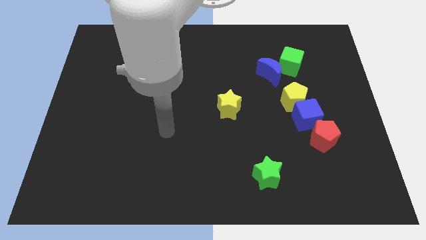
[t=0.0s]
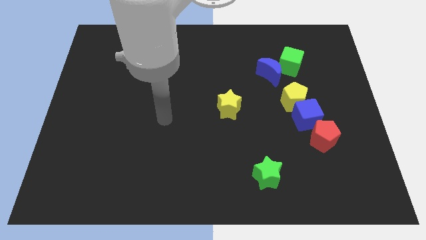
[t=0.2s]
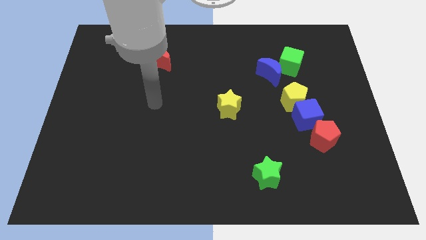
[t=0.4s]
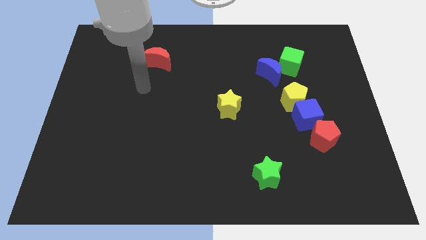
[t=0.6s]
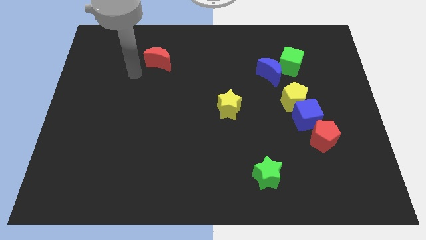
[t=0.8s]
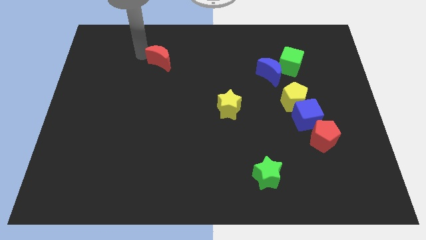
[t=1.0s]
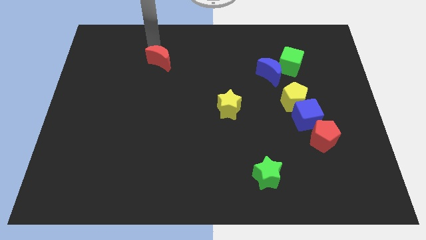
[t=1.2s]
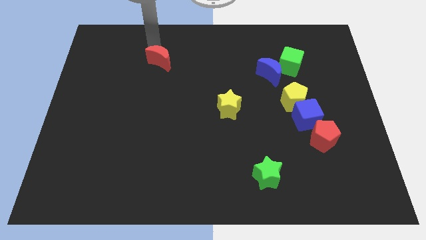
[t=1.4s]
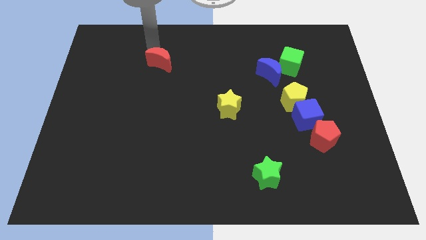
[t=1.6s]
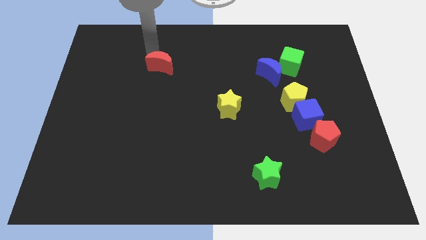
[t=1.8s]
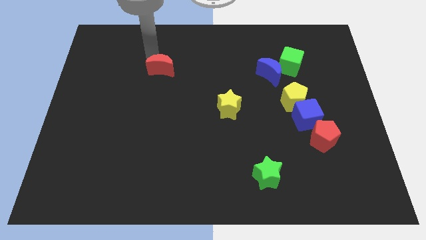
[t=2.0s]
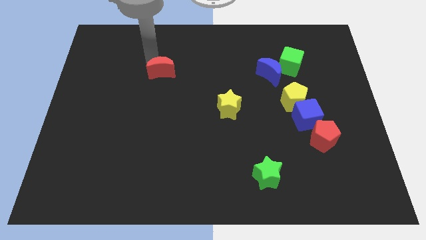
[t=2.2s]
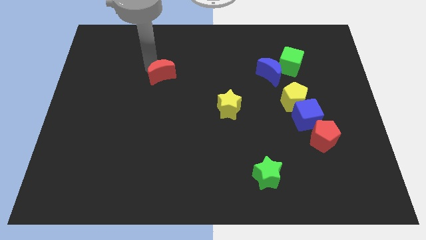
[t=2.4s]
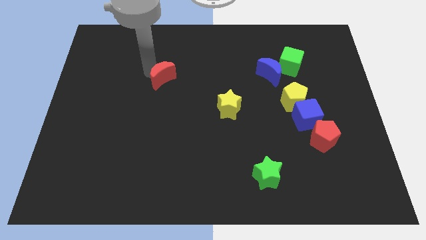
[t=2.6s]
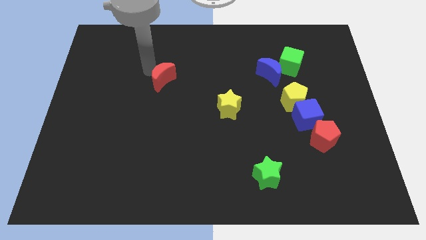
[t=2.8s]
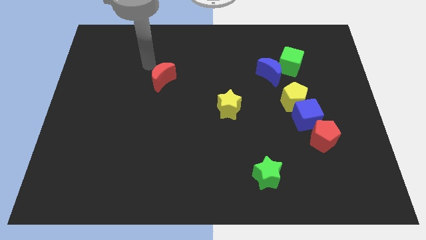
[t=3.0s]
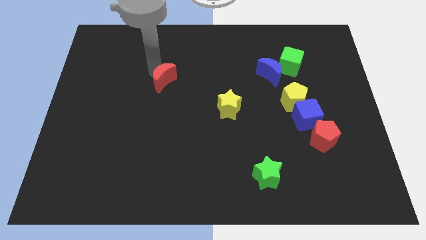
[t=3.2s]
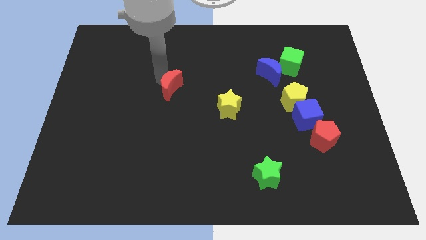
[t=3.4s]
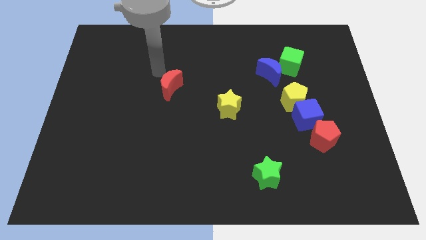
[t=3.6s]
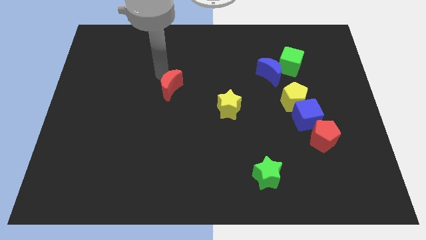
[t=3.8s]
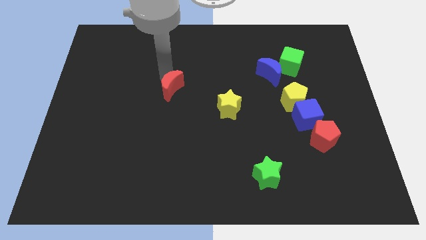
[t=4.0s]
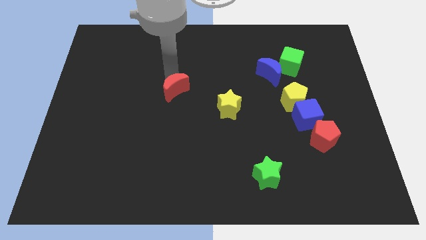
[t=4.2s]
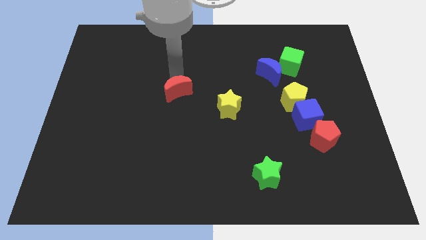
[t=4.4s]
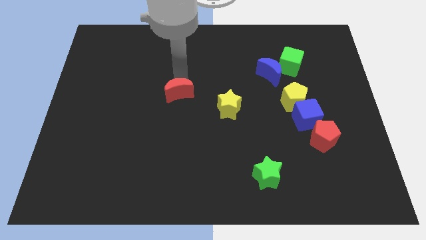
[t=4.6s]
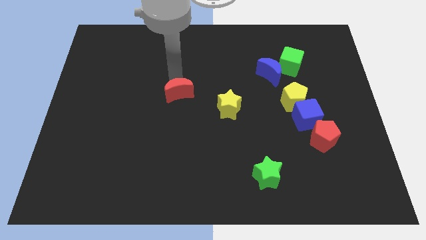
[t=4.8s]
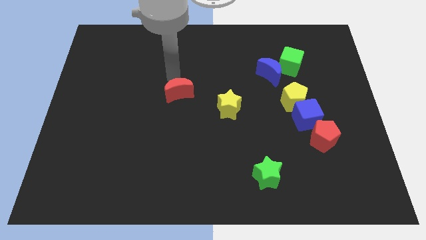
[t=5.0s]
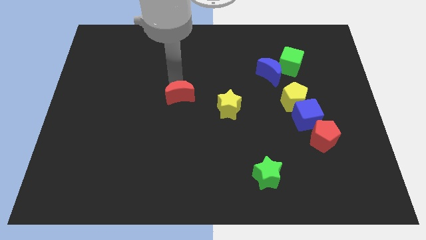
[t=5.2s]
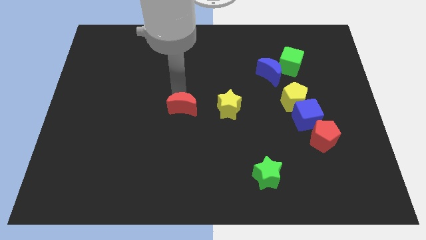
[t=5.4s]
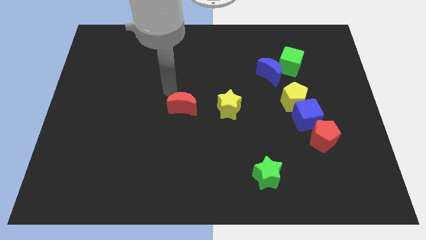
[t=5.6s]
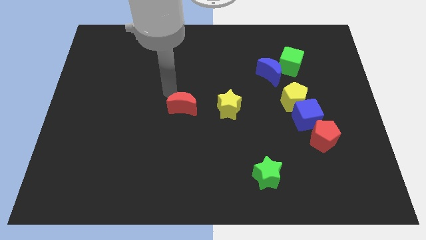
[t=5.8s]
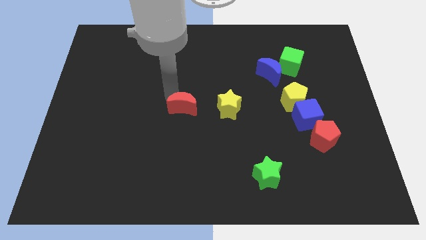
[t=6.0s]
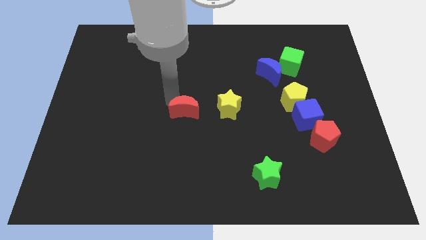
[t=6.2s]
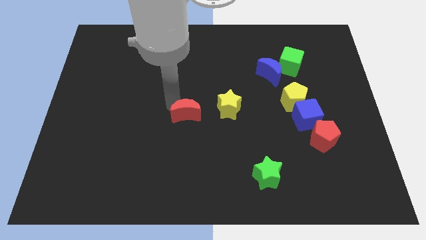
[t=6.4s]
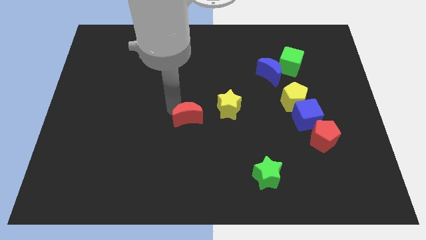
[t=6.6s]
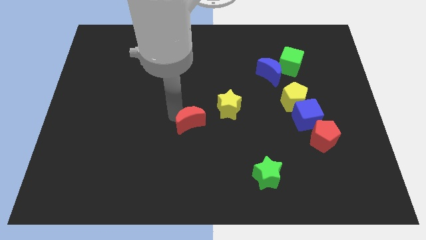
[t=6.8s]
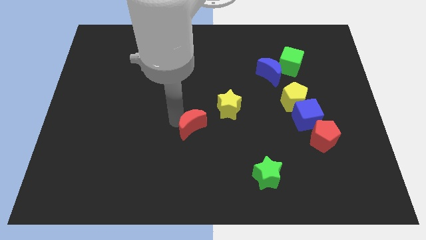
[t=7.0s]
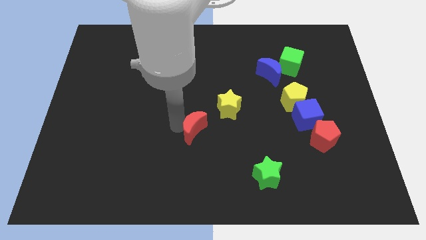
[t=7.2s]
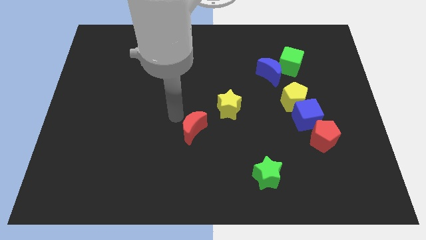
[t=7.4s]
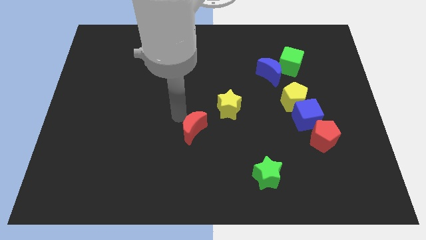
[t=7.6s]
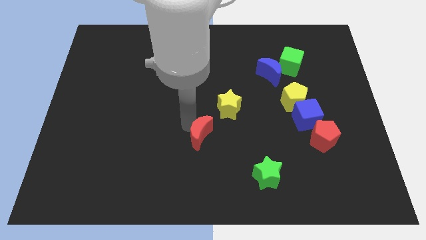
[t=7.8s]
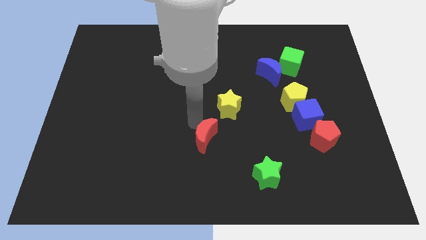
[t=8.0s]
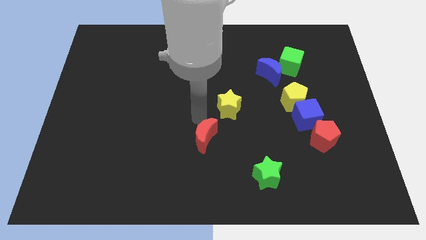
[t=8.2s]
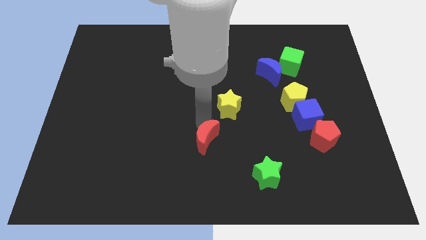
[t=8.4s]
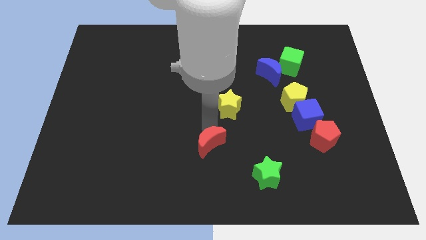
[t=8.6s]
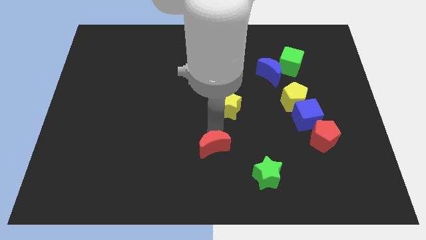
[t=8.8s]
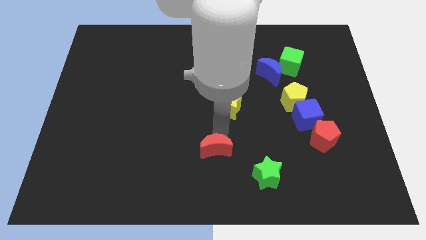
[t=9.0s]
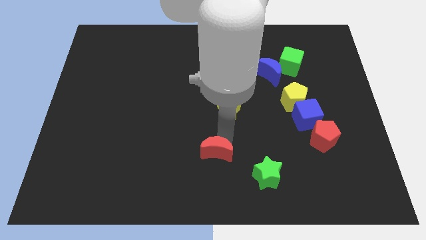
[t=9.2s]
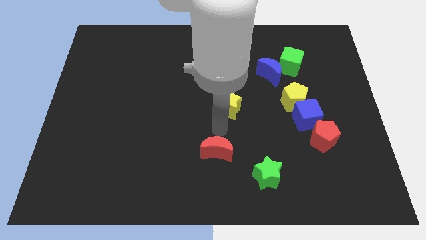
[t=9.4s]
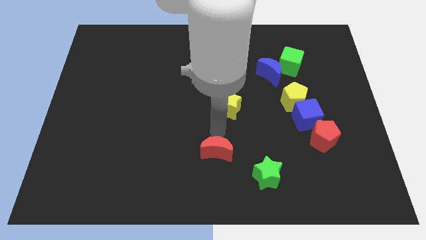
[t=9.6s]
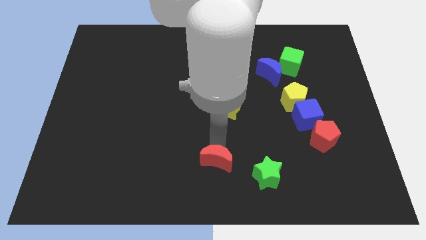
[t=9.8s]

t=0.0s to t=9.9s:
move the red moon to the left of the green star

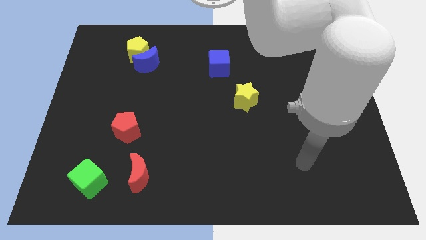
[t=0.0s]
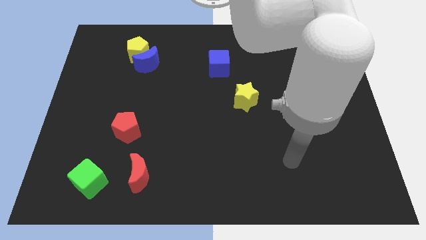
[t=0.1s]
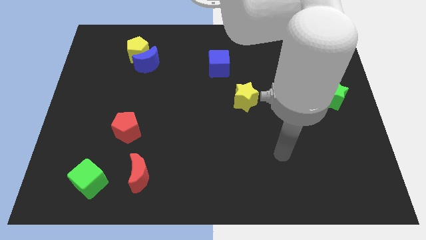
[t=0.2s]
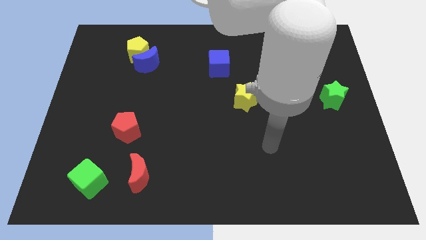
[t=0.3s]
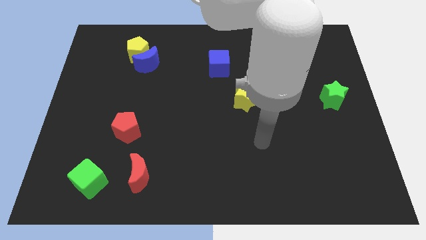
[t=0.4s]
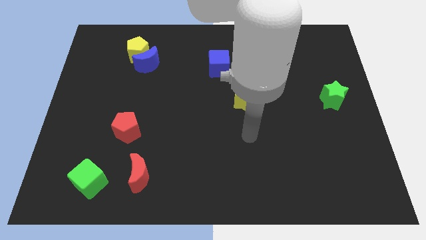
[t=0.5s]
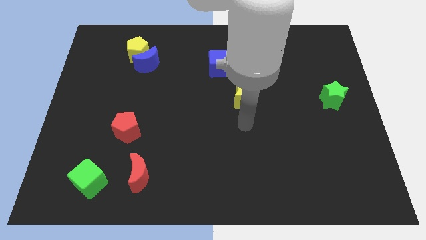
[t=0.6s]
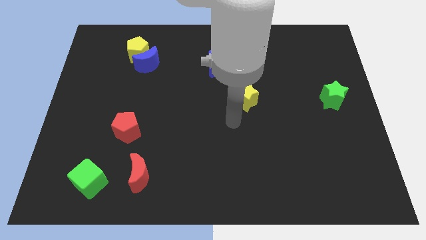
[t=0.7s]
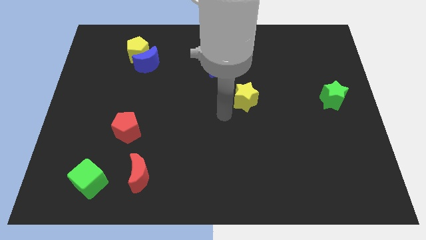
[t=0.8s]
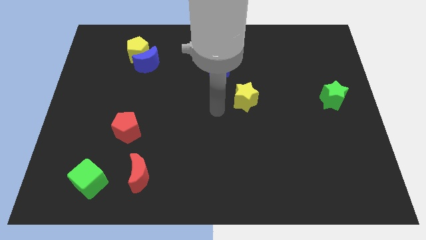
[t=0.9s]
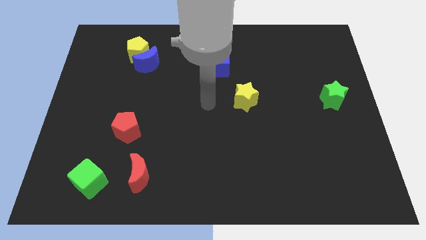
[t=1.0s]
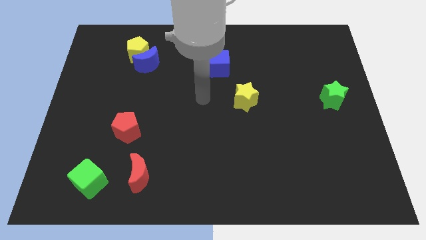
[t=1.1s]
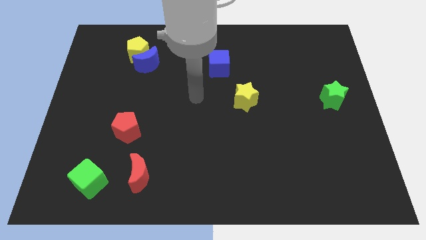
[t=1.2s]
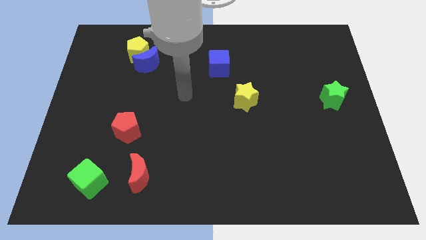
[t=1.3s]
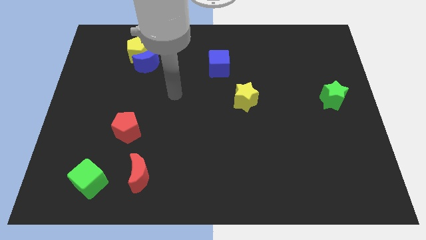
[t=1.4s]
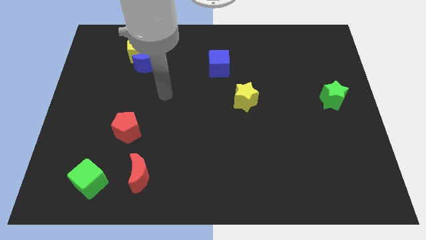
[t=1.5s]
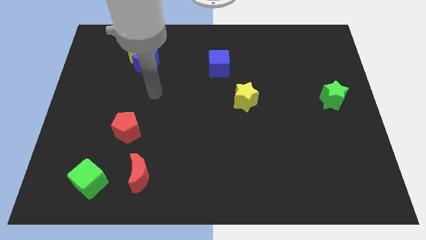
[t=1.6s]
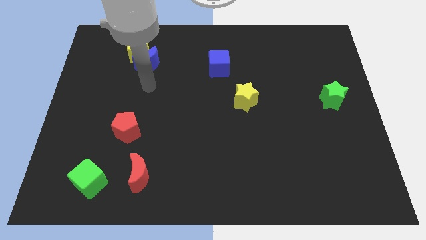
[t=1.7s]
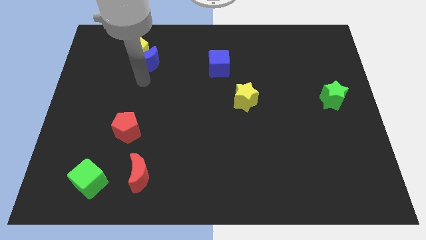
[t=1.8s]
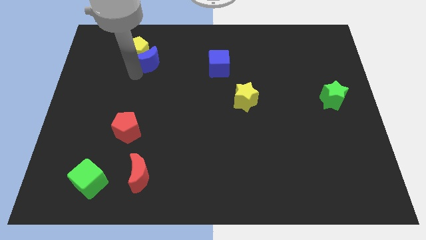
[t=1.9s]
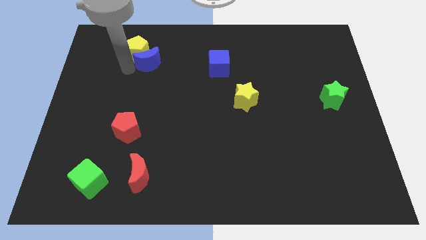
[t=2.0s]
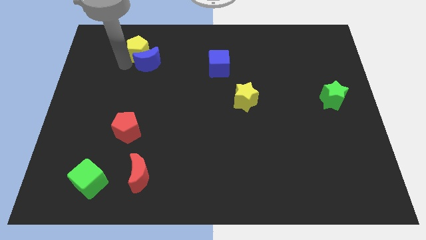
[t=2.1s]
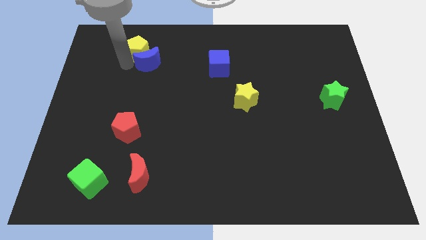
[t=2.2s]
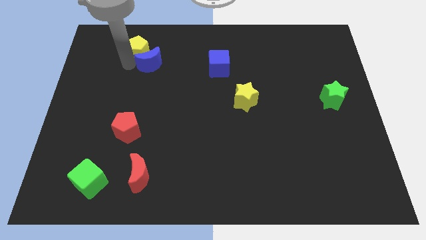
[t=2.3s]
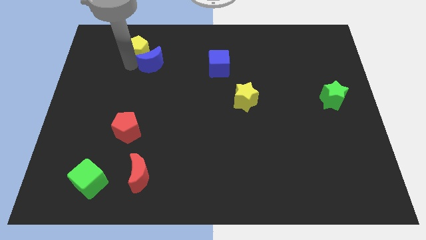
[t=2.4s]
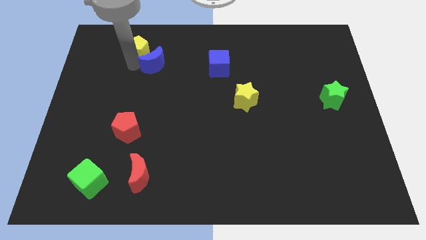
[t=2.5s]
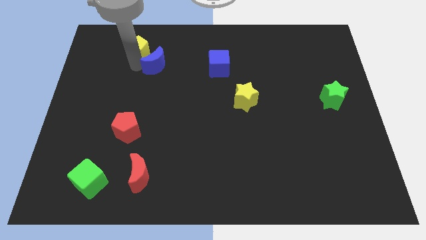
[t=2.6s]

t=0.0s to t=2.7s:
move the blue moon just left of the blue cube

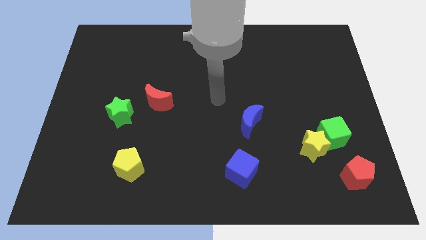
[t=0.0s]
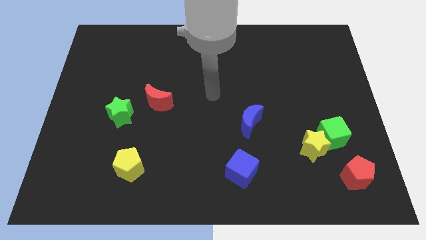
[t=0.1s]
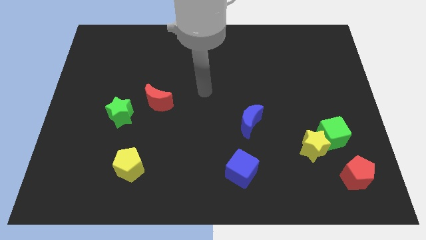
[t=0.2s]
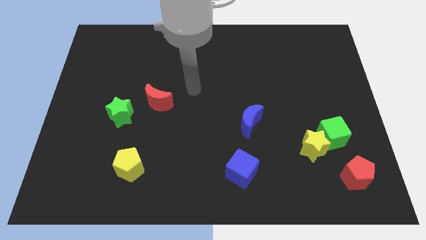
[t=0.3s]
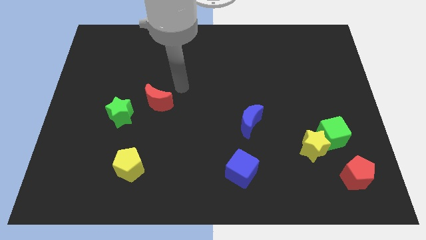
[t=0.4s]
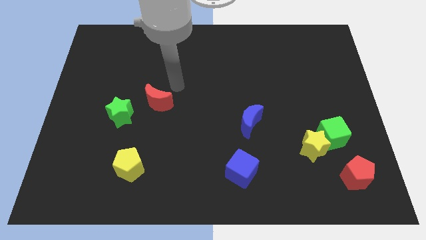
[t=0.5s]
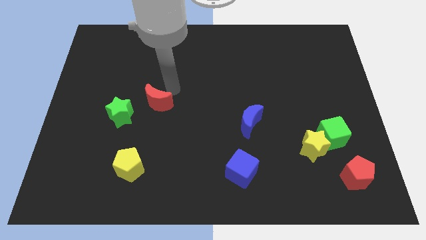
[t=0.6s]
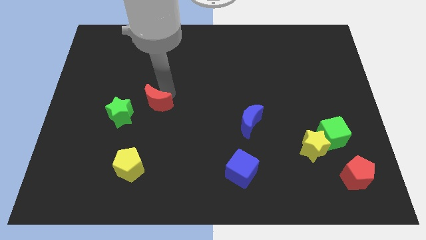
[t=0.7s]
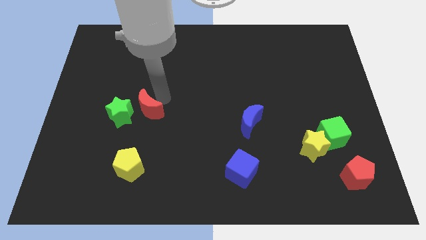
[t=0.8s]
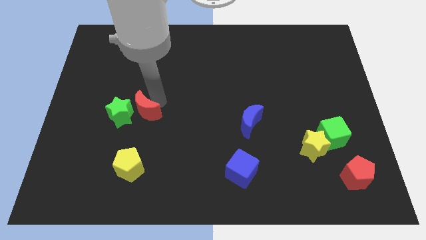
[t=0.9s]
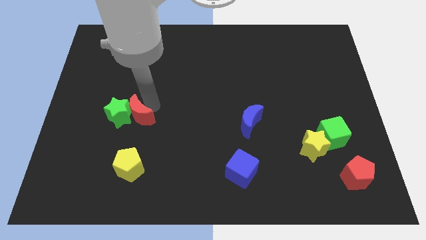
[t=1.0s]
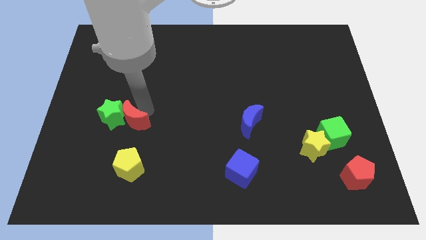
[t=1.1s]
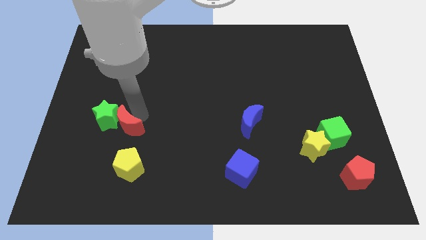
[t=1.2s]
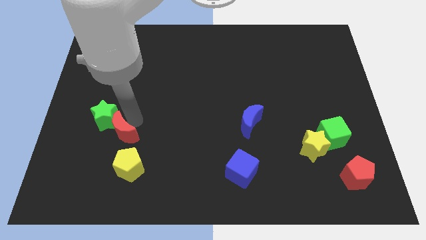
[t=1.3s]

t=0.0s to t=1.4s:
put the red moon to the top left side of the yellow pentagon
